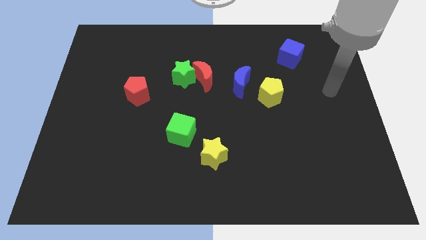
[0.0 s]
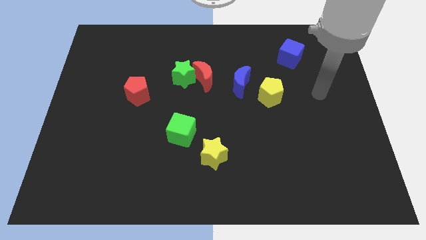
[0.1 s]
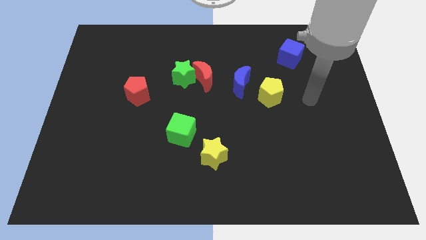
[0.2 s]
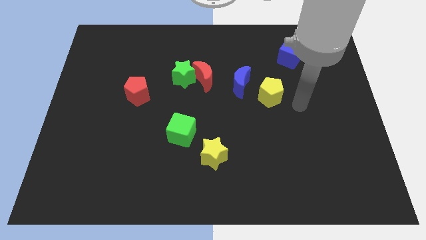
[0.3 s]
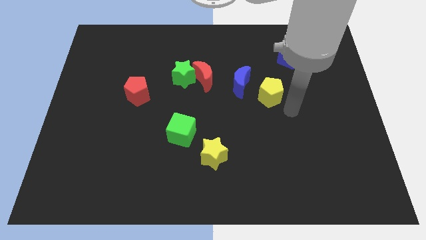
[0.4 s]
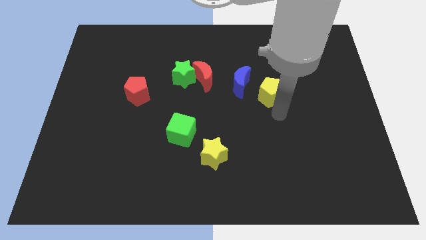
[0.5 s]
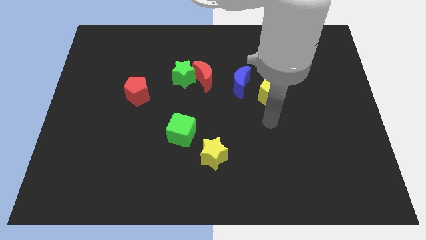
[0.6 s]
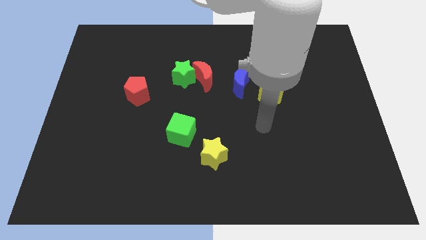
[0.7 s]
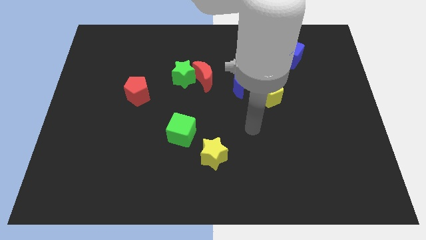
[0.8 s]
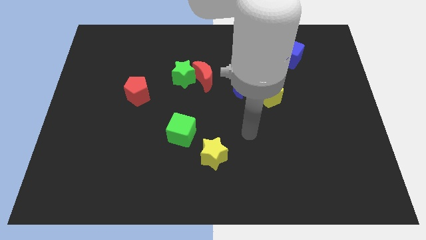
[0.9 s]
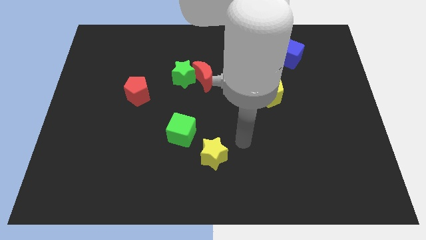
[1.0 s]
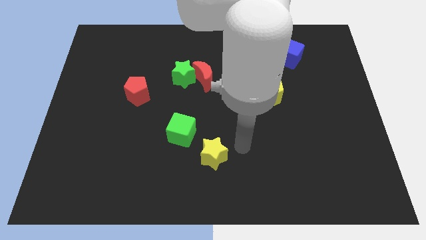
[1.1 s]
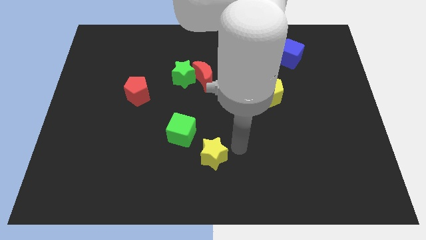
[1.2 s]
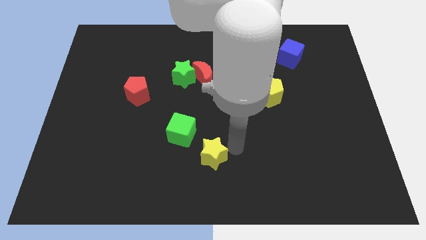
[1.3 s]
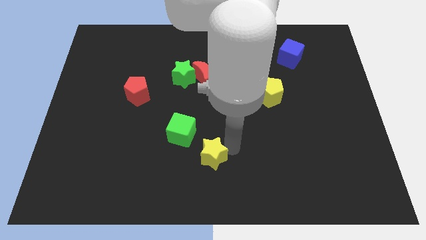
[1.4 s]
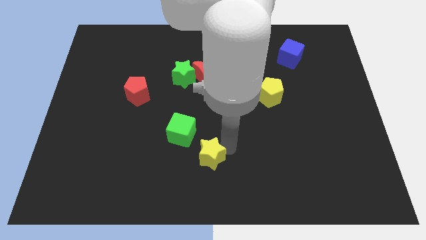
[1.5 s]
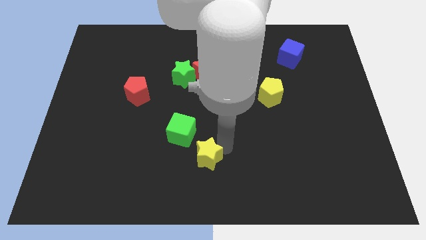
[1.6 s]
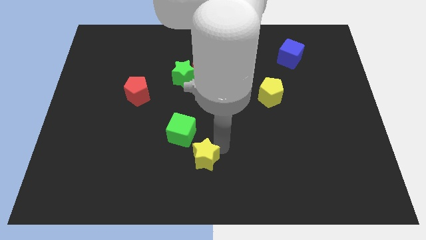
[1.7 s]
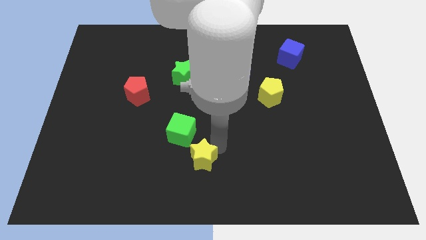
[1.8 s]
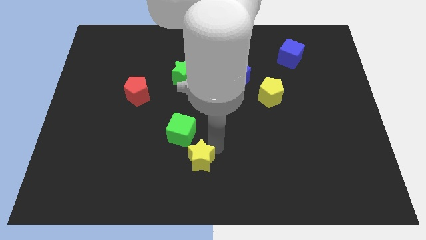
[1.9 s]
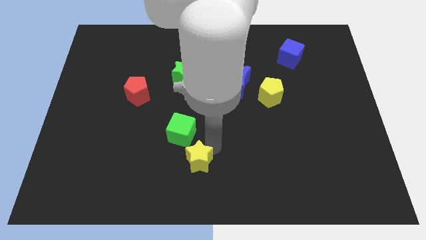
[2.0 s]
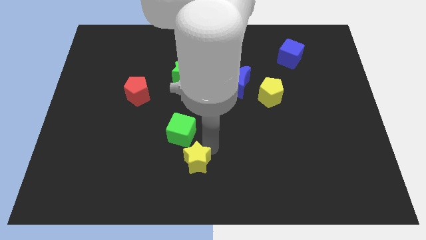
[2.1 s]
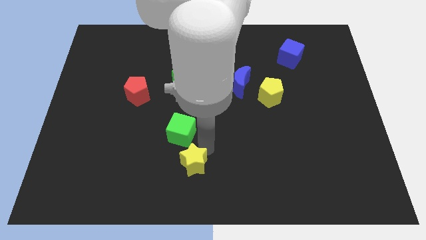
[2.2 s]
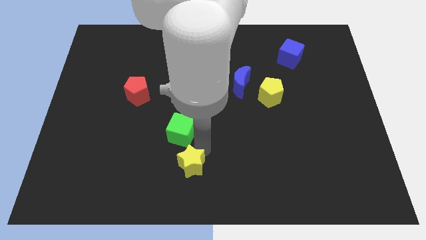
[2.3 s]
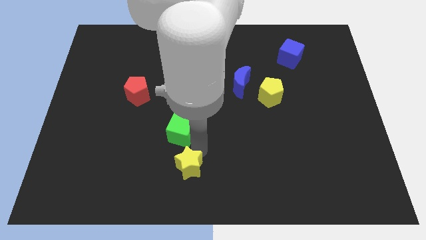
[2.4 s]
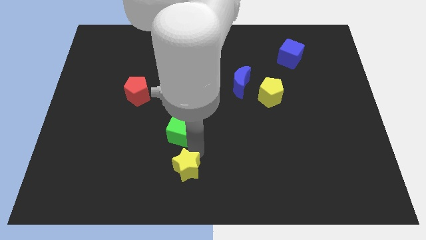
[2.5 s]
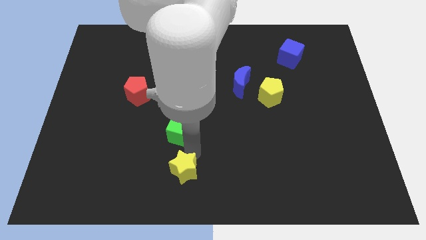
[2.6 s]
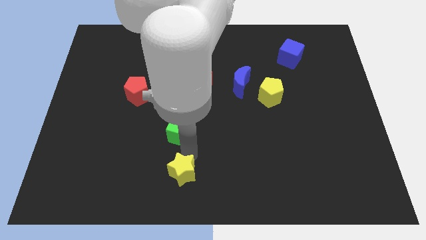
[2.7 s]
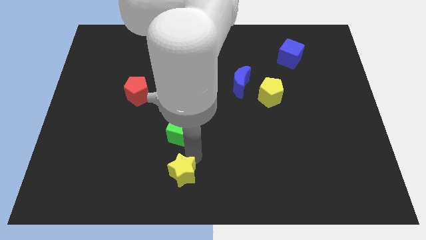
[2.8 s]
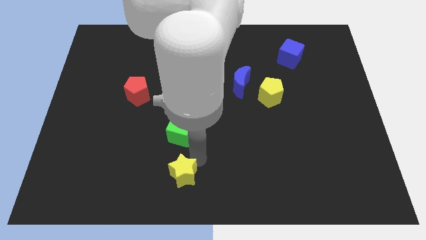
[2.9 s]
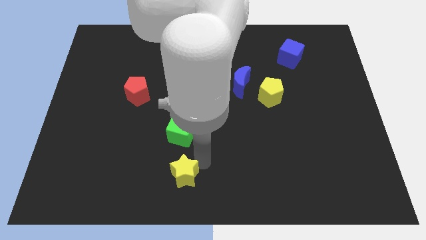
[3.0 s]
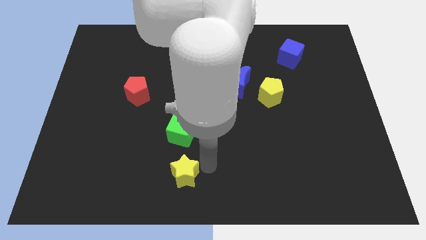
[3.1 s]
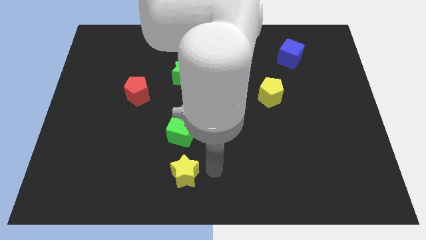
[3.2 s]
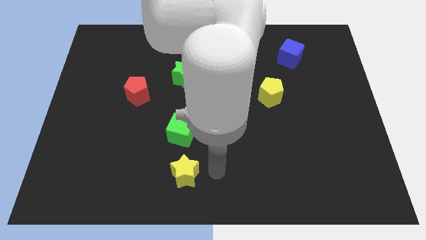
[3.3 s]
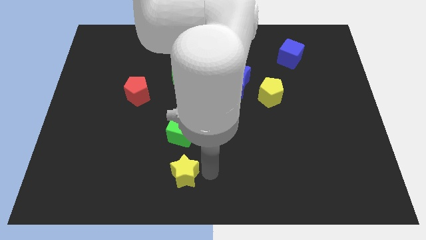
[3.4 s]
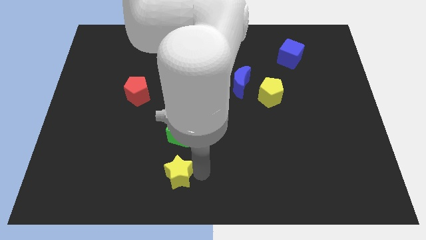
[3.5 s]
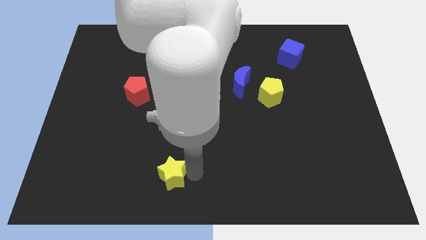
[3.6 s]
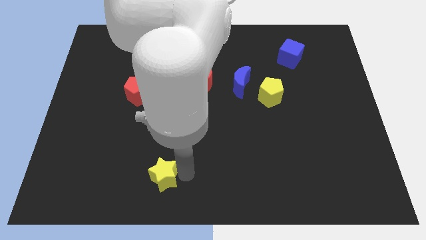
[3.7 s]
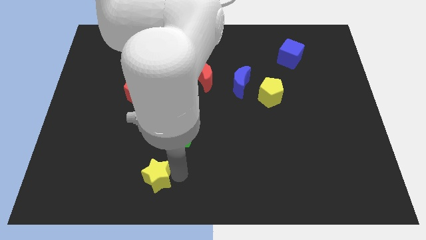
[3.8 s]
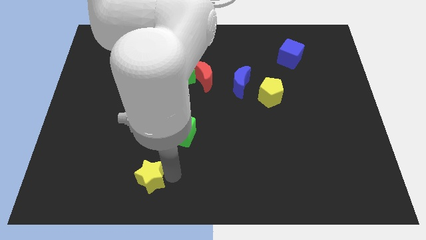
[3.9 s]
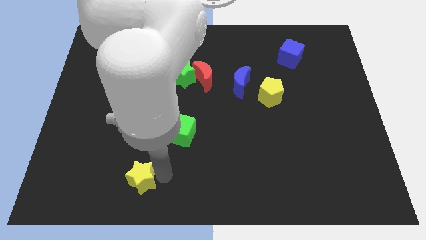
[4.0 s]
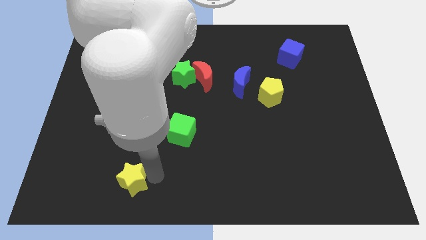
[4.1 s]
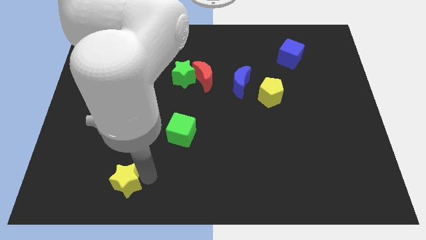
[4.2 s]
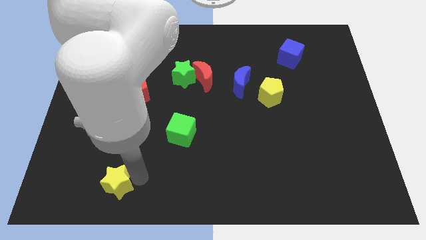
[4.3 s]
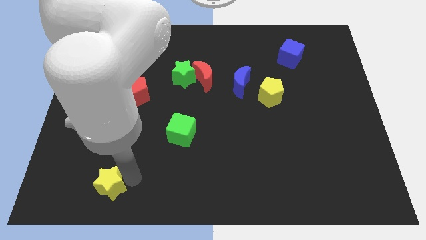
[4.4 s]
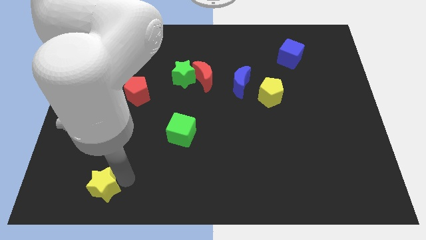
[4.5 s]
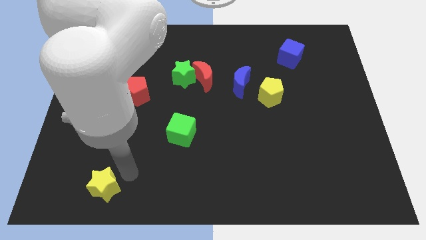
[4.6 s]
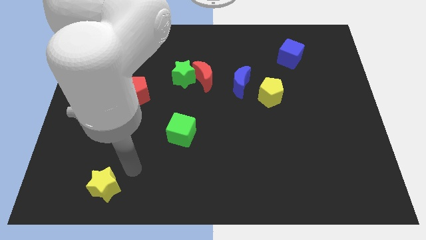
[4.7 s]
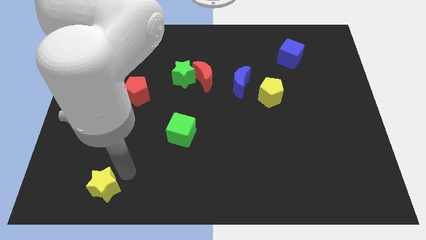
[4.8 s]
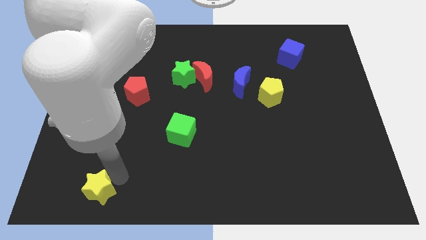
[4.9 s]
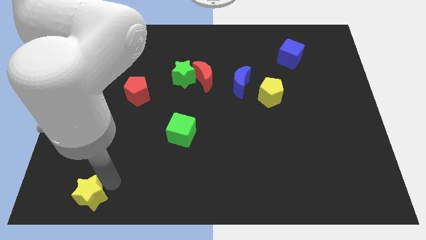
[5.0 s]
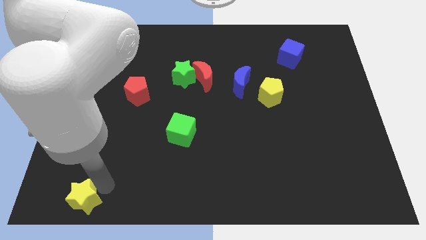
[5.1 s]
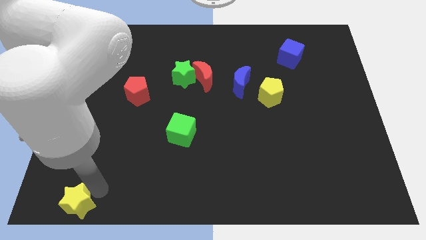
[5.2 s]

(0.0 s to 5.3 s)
put the yellow star to the bottom left of the board

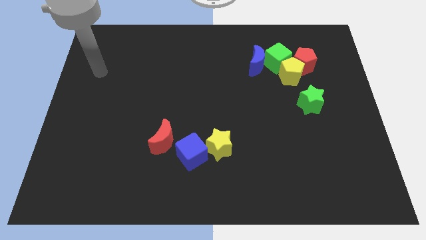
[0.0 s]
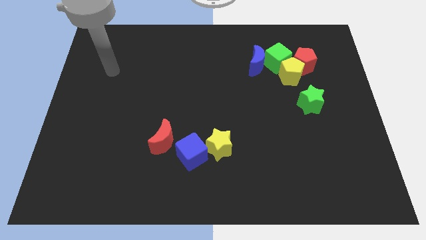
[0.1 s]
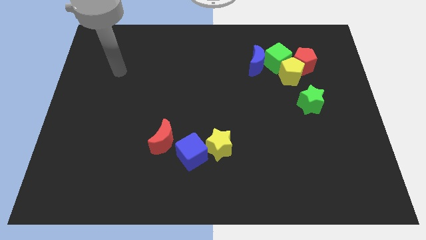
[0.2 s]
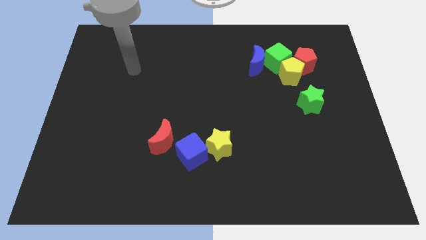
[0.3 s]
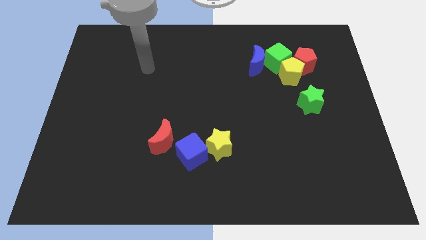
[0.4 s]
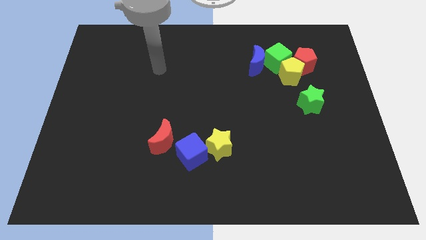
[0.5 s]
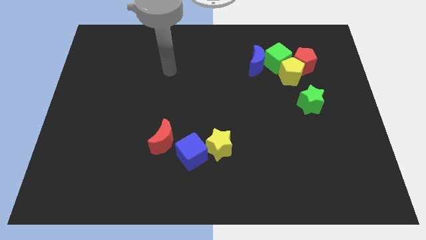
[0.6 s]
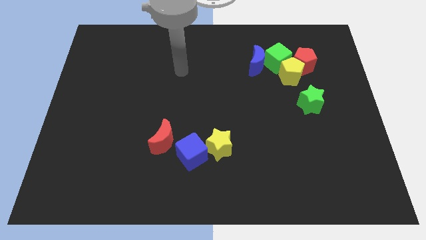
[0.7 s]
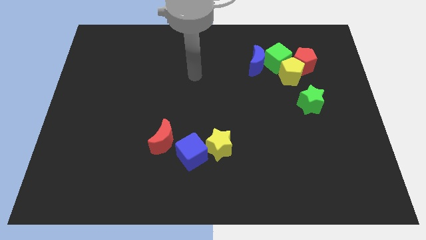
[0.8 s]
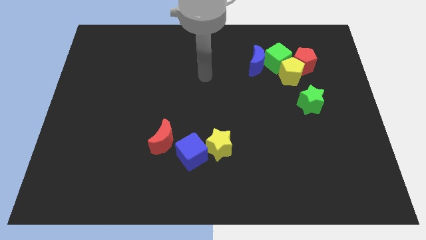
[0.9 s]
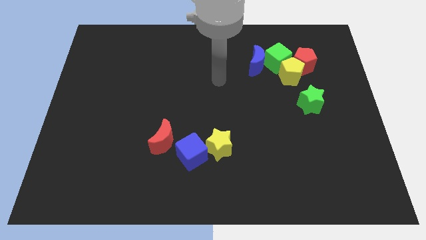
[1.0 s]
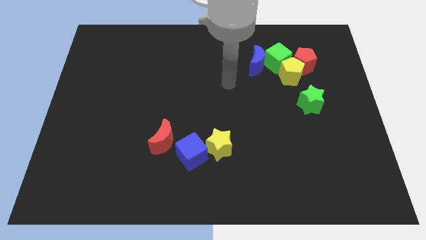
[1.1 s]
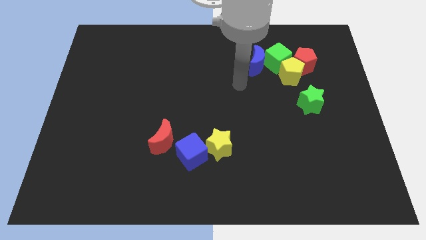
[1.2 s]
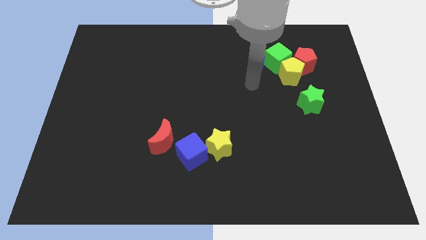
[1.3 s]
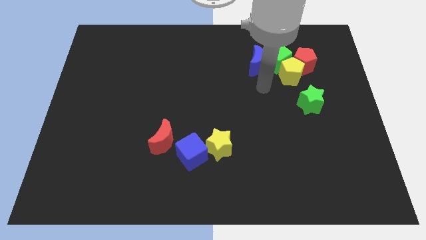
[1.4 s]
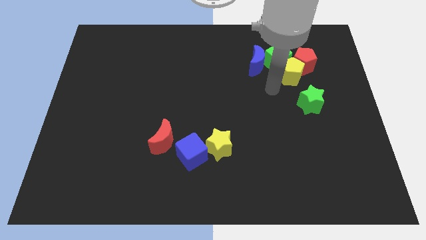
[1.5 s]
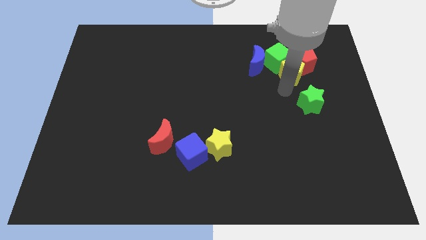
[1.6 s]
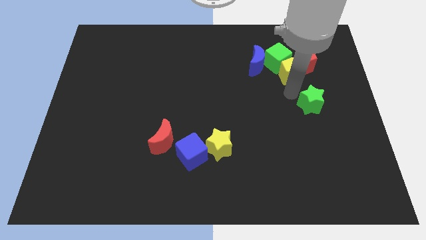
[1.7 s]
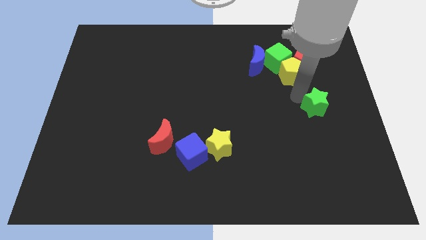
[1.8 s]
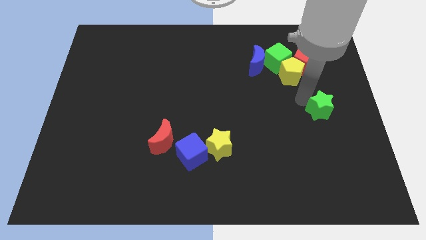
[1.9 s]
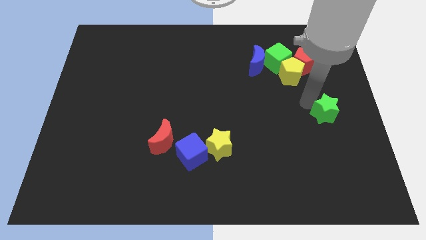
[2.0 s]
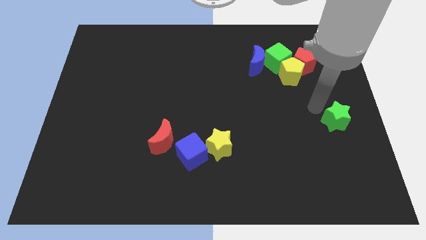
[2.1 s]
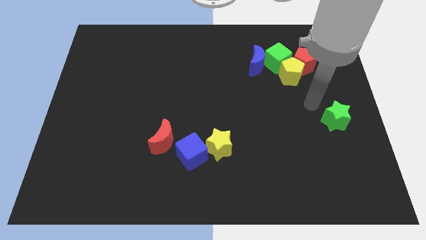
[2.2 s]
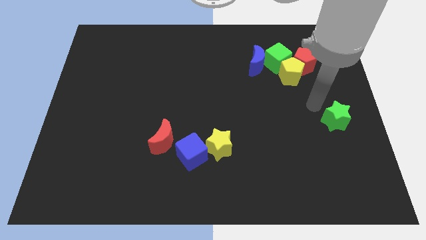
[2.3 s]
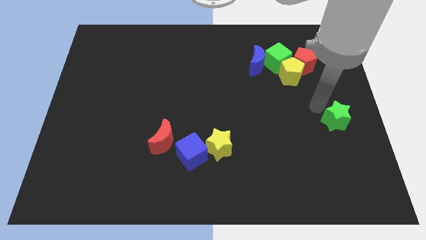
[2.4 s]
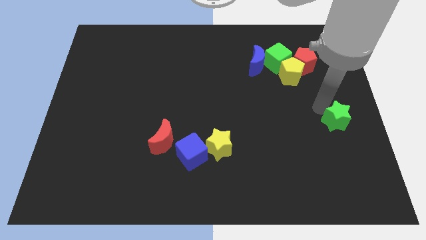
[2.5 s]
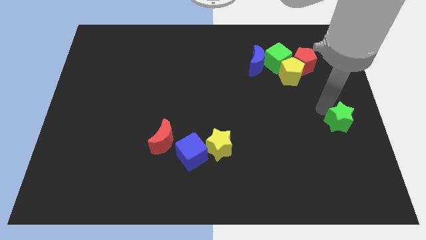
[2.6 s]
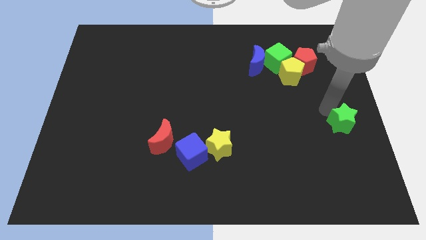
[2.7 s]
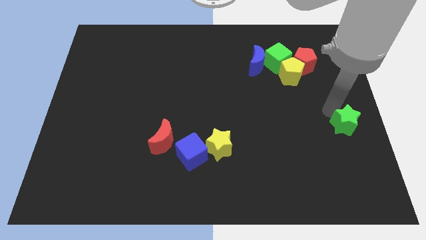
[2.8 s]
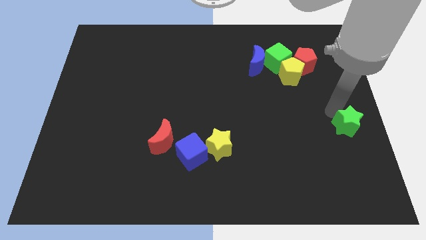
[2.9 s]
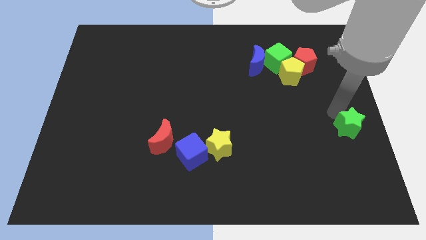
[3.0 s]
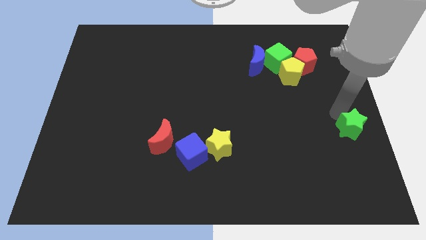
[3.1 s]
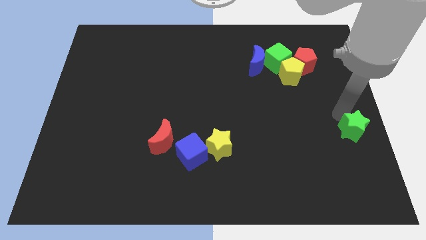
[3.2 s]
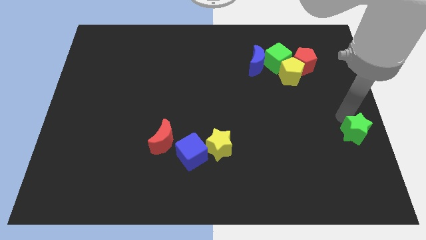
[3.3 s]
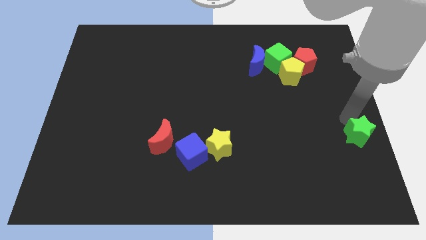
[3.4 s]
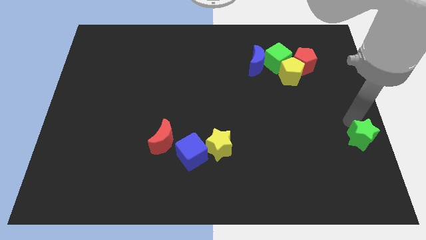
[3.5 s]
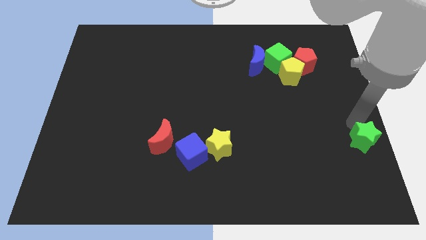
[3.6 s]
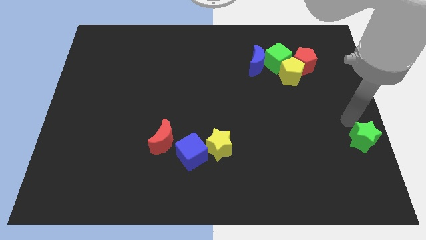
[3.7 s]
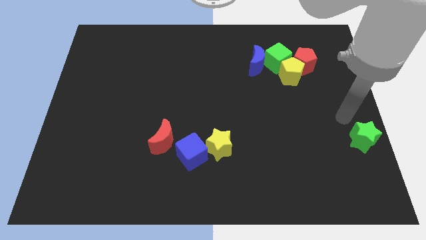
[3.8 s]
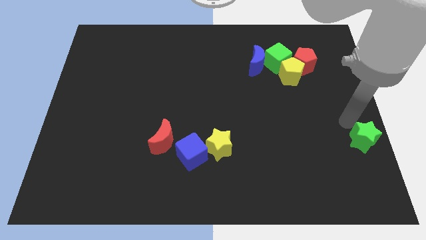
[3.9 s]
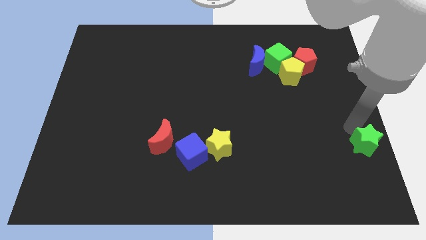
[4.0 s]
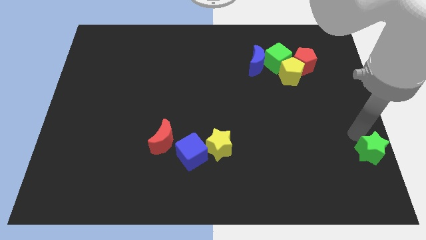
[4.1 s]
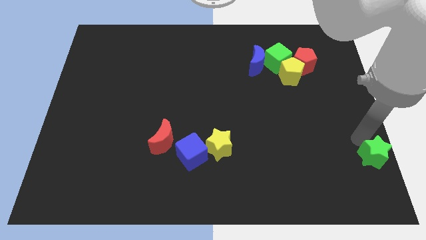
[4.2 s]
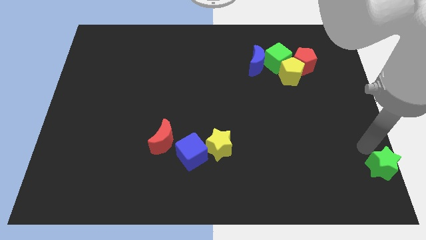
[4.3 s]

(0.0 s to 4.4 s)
move the green star to the bottom right of the board
